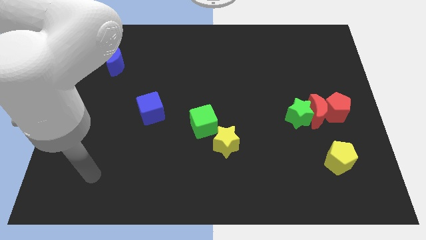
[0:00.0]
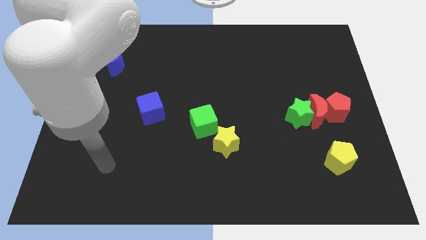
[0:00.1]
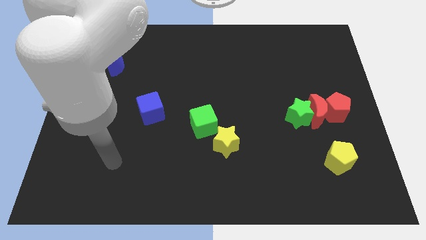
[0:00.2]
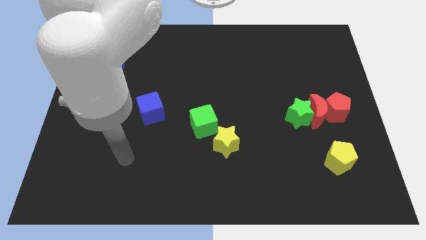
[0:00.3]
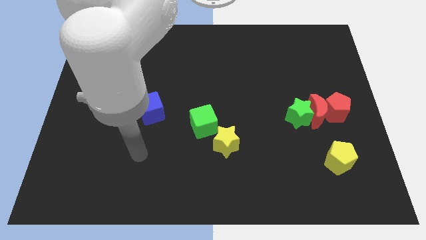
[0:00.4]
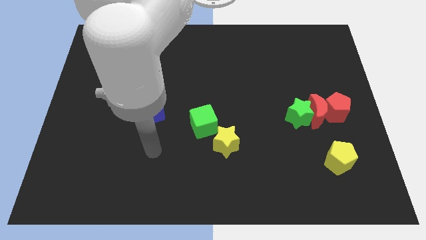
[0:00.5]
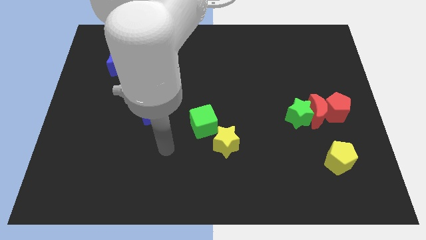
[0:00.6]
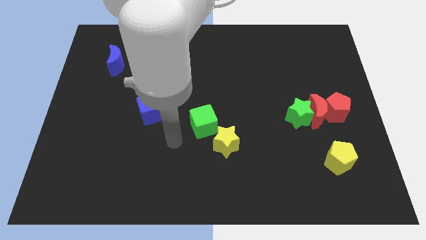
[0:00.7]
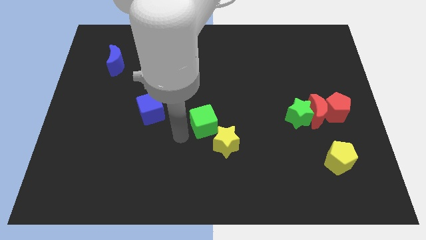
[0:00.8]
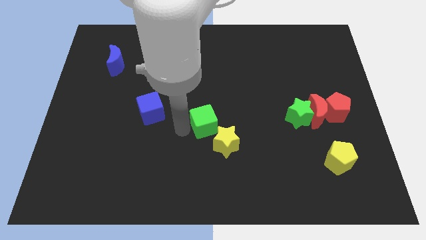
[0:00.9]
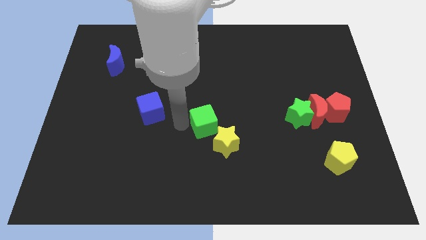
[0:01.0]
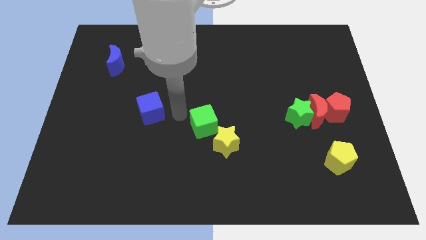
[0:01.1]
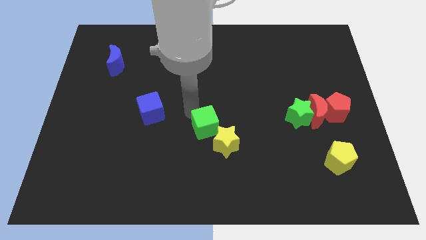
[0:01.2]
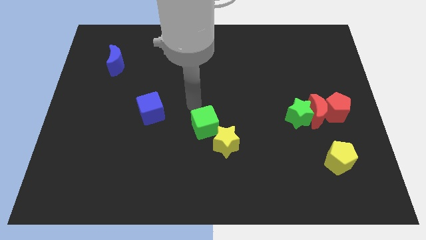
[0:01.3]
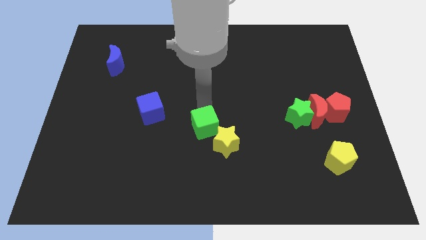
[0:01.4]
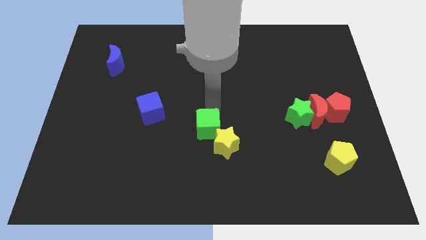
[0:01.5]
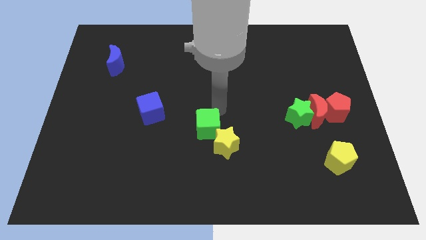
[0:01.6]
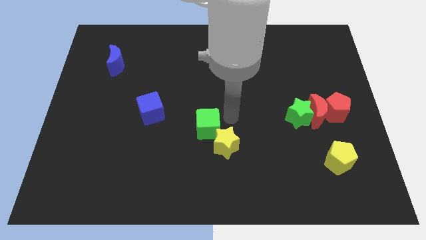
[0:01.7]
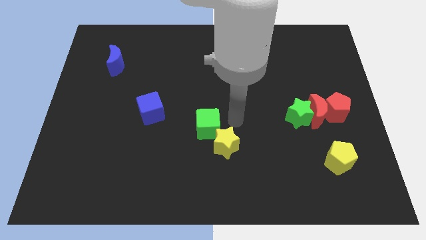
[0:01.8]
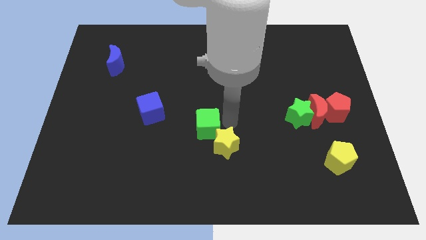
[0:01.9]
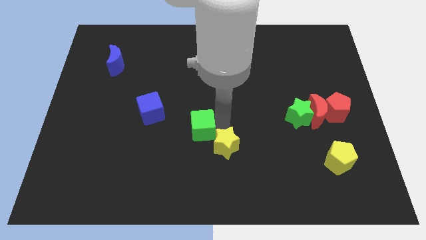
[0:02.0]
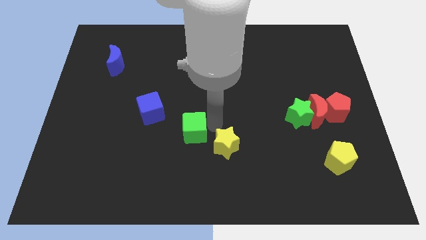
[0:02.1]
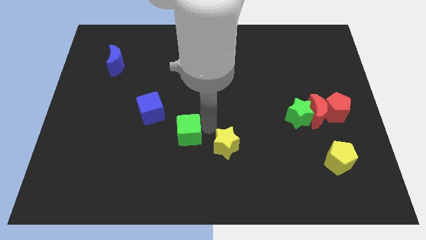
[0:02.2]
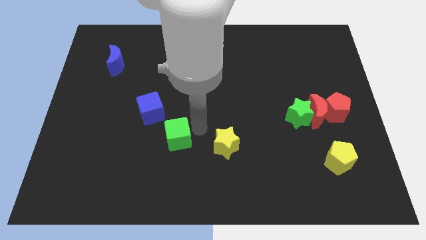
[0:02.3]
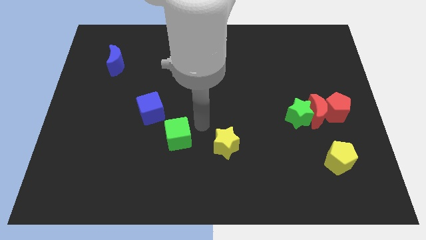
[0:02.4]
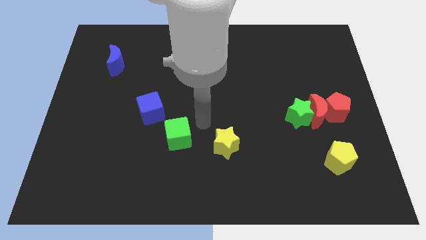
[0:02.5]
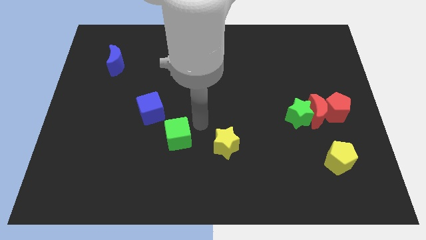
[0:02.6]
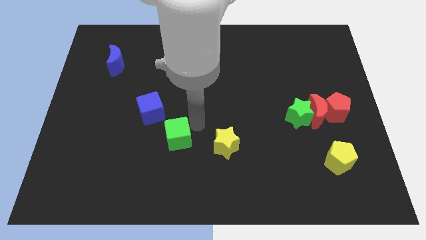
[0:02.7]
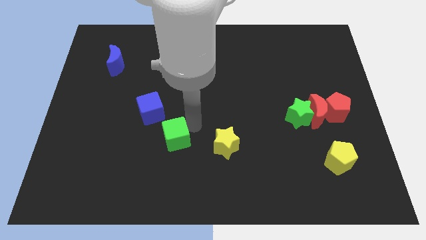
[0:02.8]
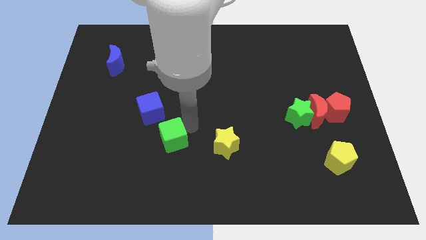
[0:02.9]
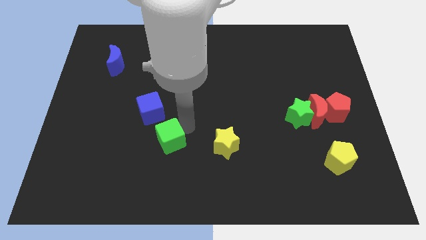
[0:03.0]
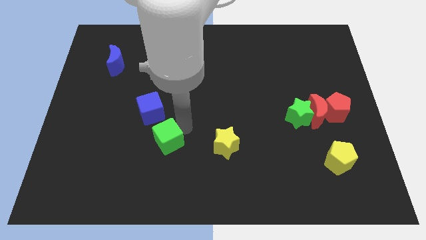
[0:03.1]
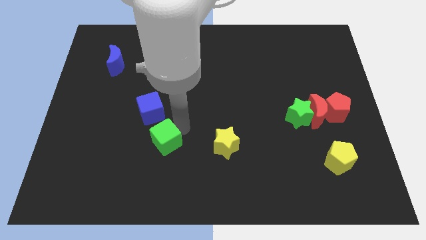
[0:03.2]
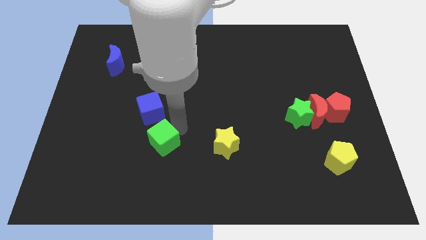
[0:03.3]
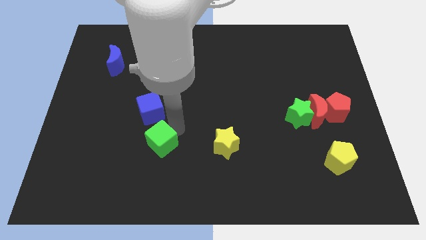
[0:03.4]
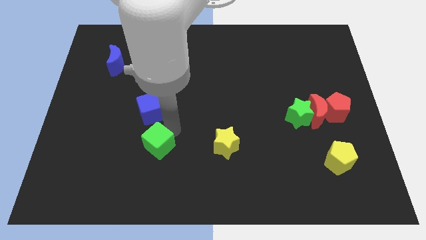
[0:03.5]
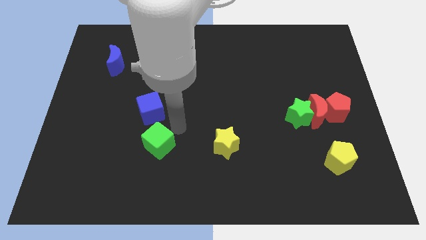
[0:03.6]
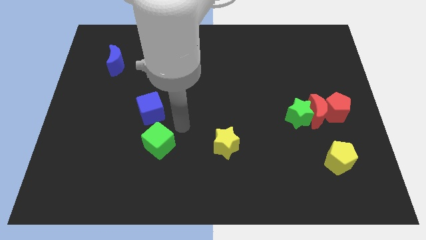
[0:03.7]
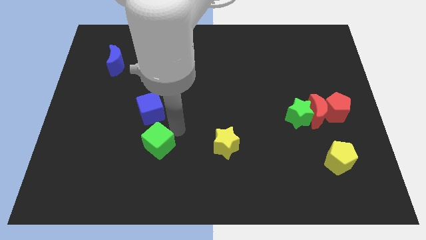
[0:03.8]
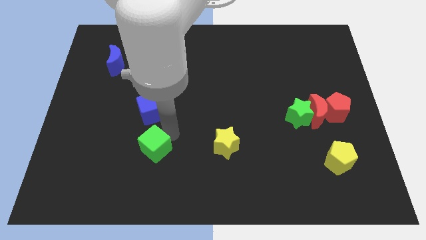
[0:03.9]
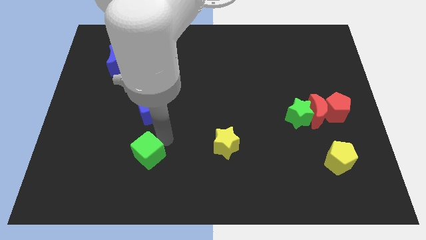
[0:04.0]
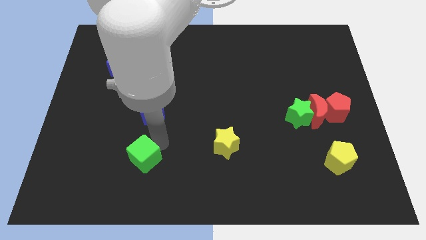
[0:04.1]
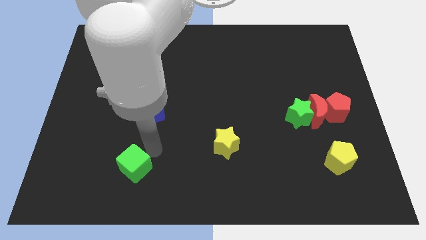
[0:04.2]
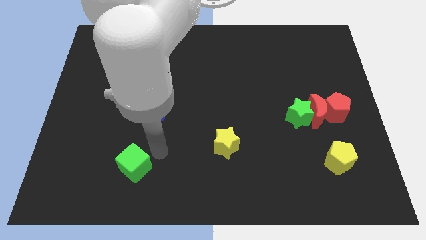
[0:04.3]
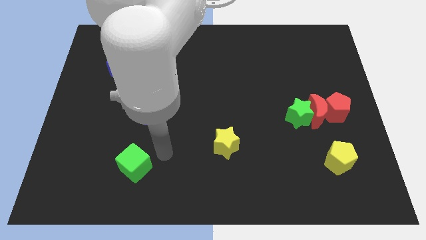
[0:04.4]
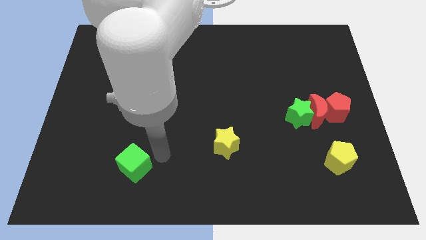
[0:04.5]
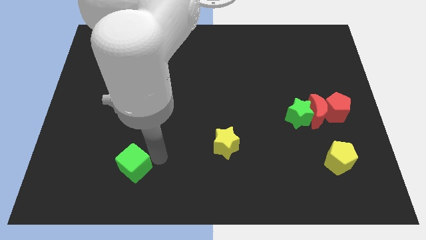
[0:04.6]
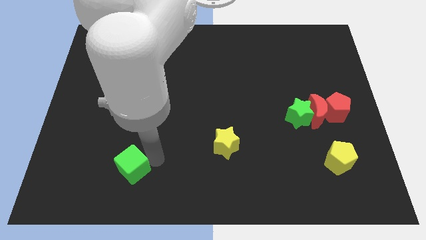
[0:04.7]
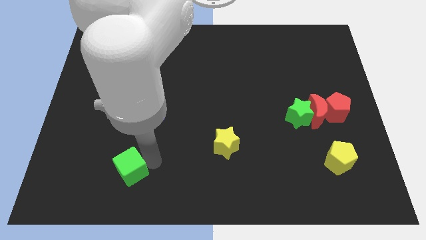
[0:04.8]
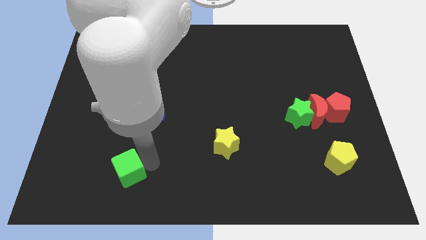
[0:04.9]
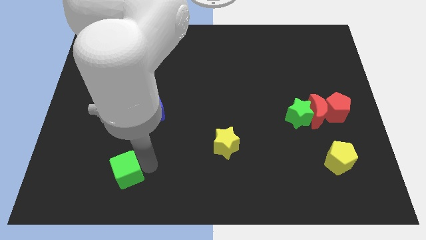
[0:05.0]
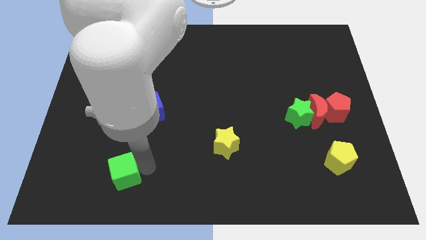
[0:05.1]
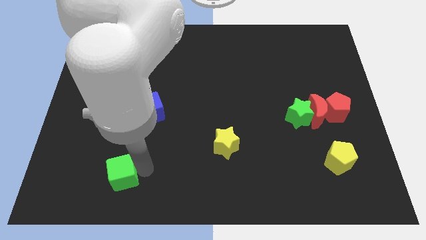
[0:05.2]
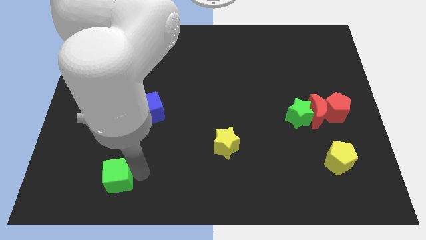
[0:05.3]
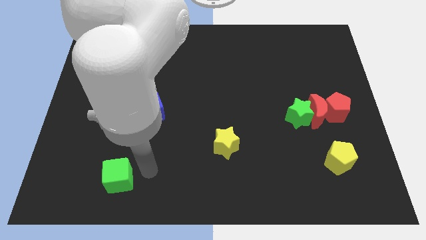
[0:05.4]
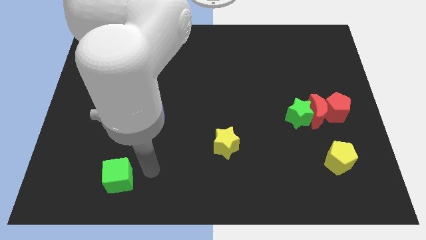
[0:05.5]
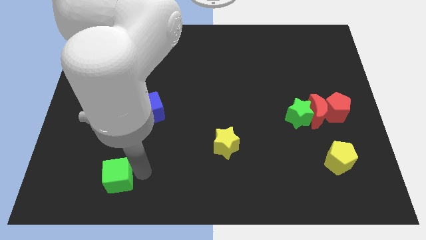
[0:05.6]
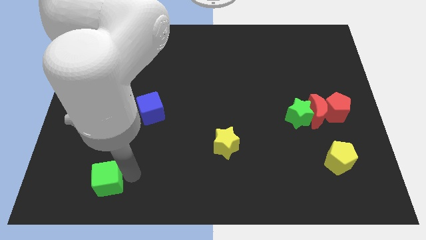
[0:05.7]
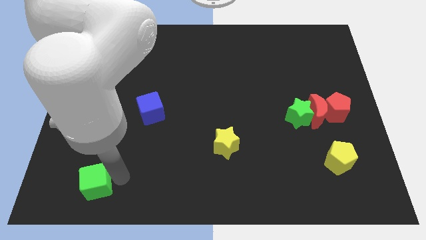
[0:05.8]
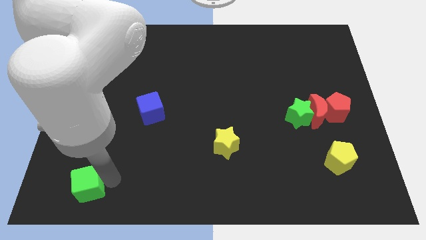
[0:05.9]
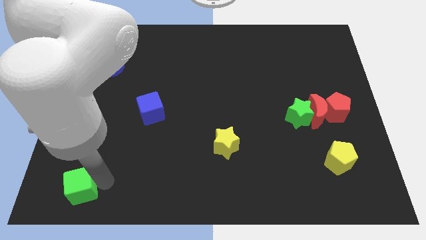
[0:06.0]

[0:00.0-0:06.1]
push the green cube to the lower left corner
